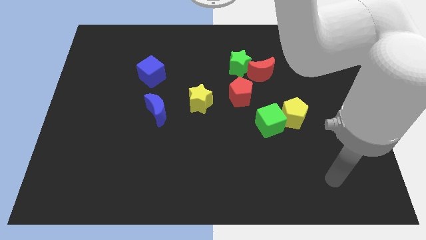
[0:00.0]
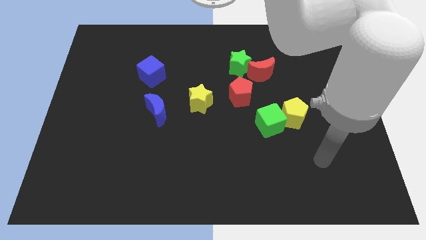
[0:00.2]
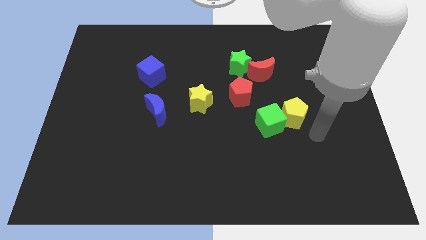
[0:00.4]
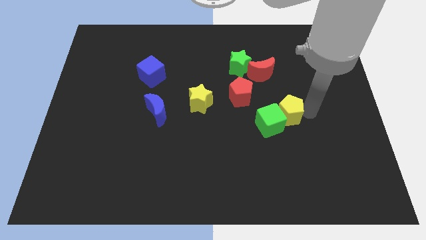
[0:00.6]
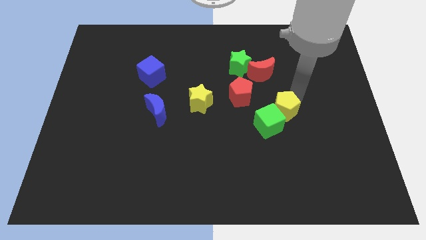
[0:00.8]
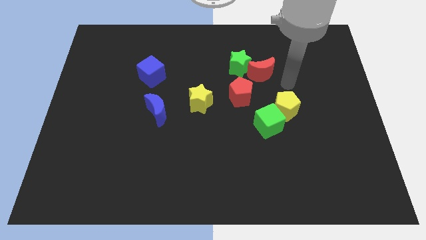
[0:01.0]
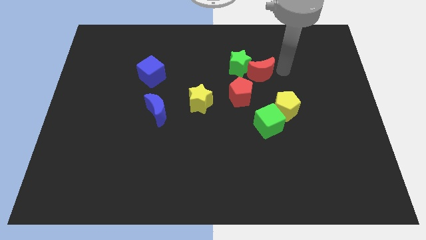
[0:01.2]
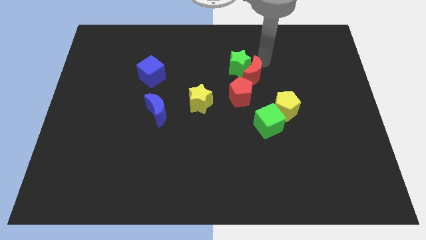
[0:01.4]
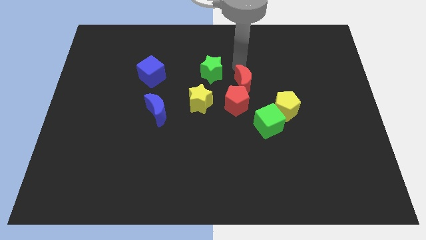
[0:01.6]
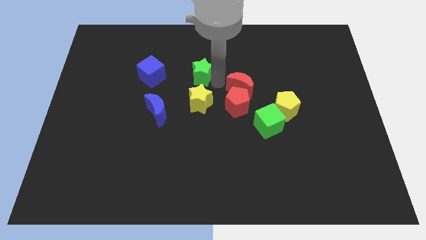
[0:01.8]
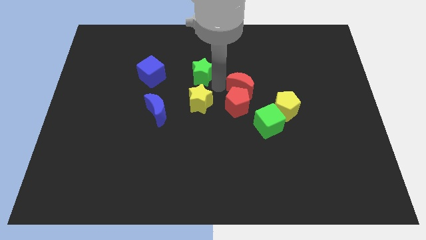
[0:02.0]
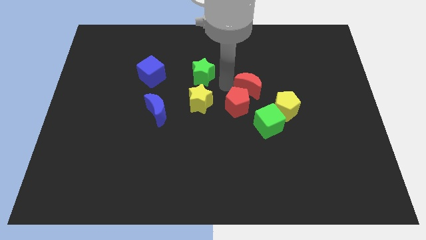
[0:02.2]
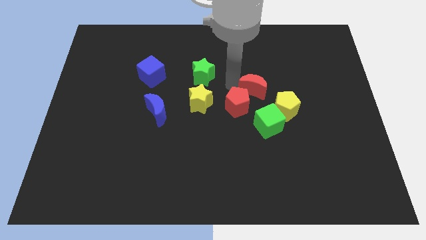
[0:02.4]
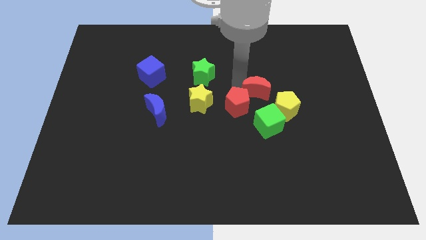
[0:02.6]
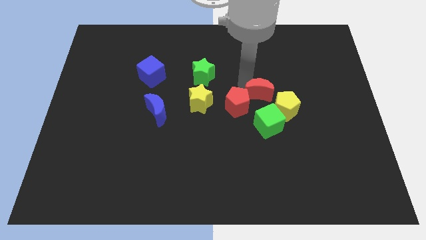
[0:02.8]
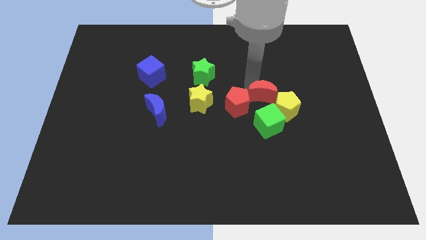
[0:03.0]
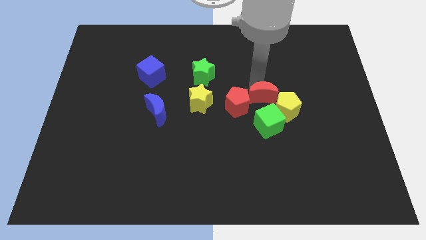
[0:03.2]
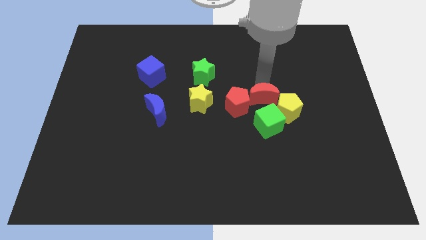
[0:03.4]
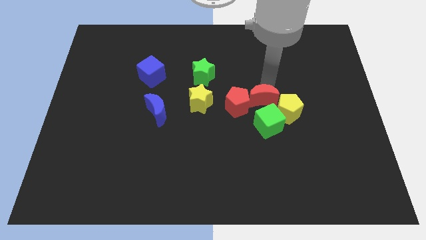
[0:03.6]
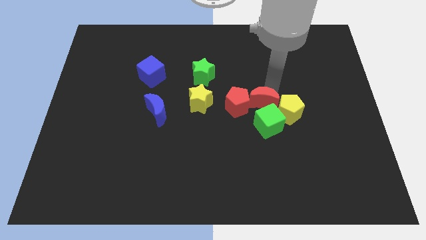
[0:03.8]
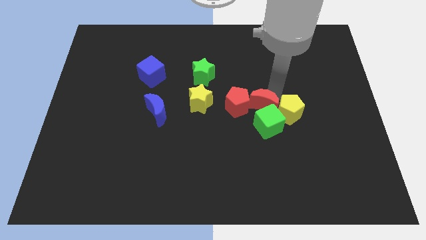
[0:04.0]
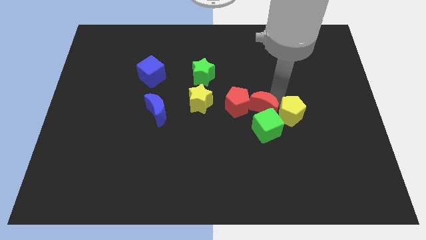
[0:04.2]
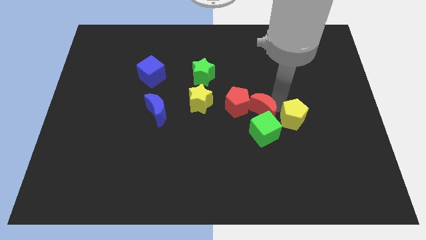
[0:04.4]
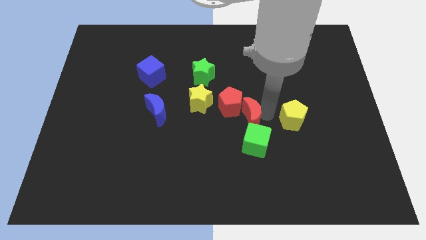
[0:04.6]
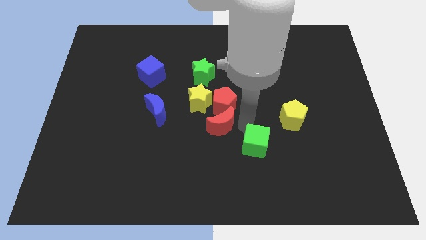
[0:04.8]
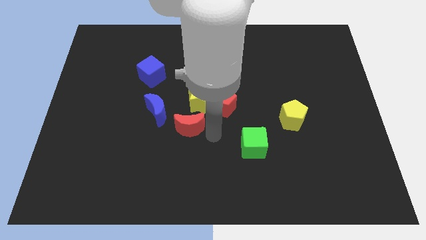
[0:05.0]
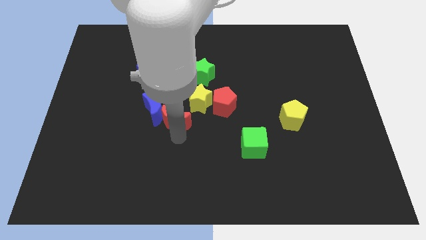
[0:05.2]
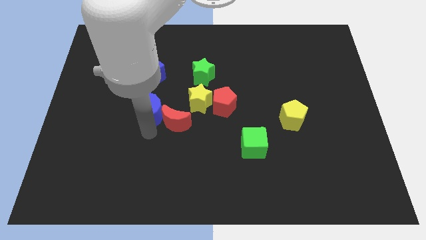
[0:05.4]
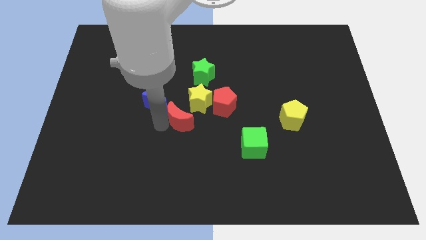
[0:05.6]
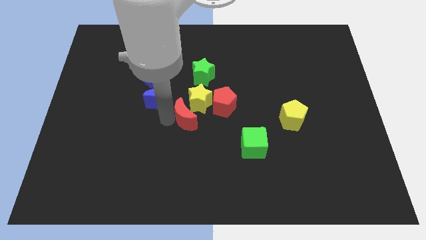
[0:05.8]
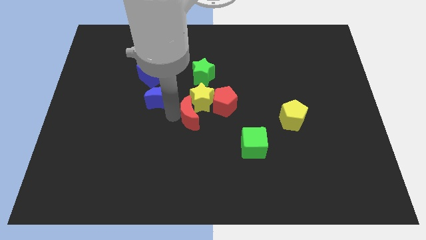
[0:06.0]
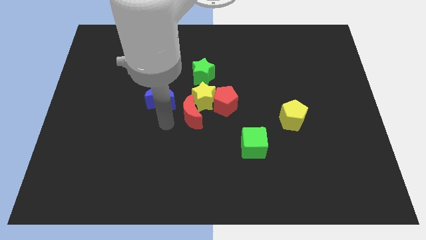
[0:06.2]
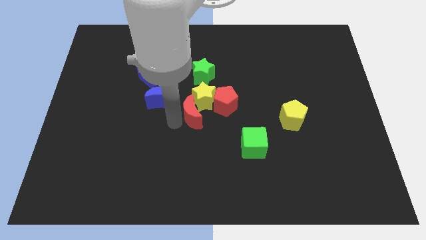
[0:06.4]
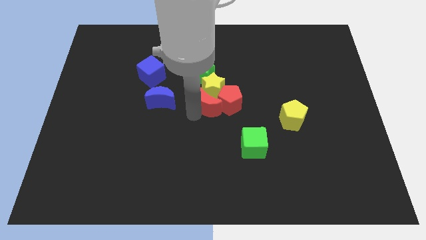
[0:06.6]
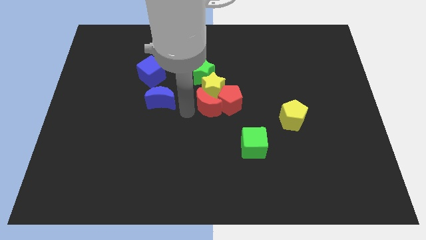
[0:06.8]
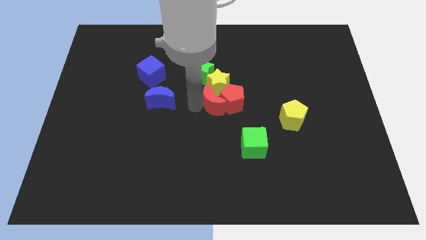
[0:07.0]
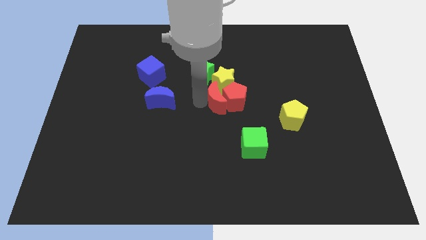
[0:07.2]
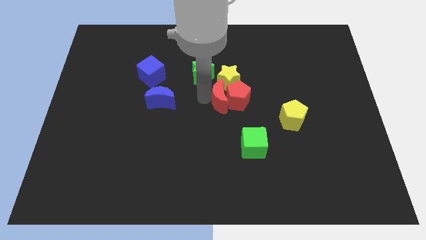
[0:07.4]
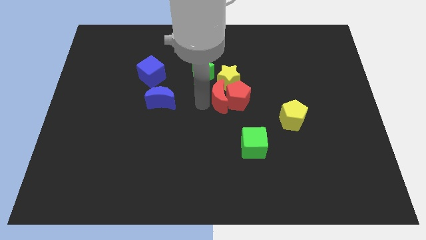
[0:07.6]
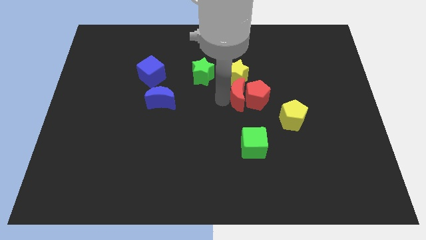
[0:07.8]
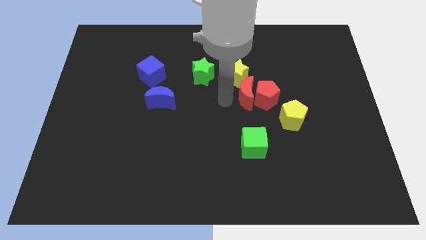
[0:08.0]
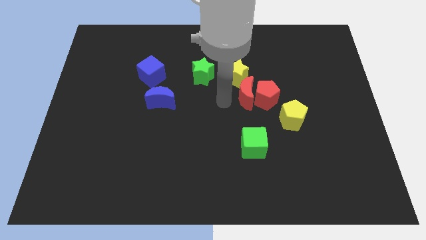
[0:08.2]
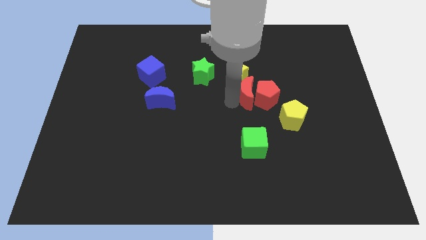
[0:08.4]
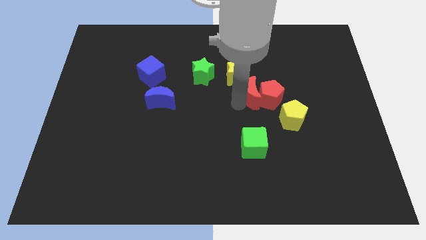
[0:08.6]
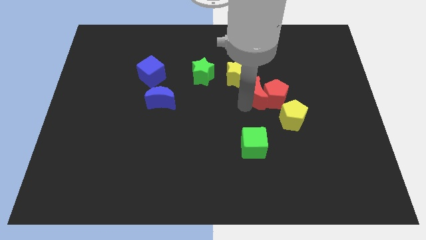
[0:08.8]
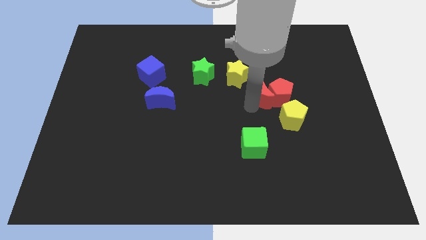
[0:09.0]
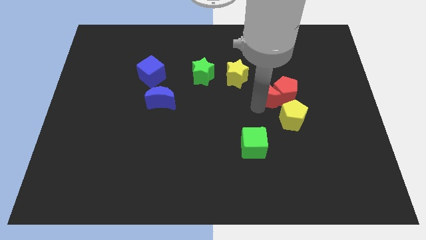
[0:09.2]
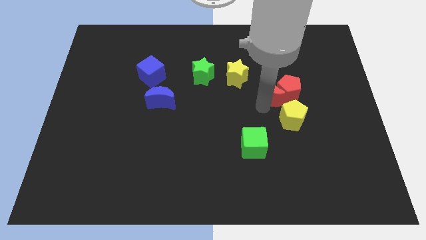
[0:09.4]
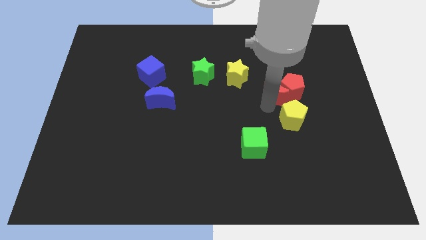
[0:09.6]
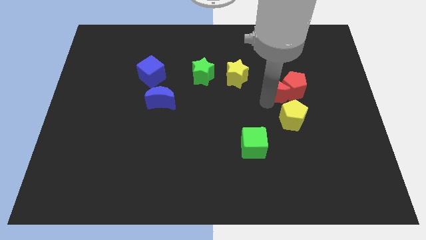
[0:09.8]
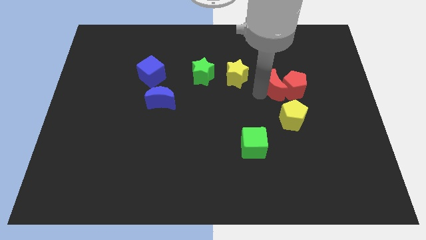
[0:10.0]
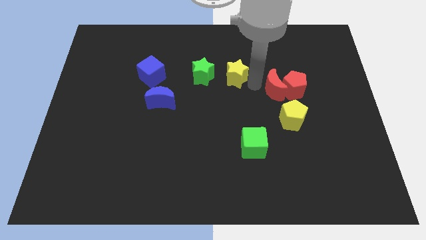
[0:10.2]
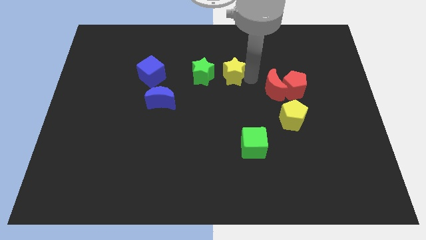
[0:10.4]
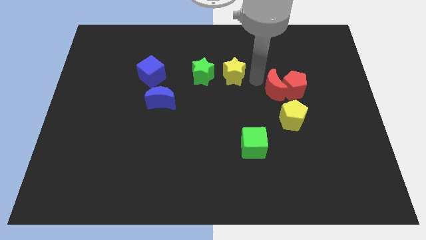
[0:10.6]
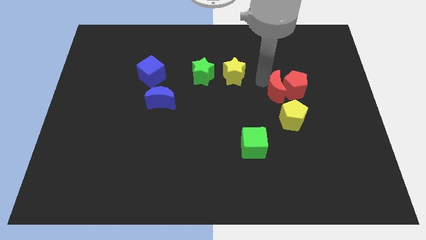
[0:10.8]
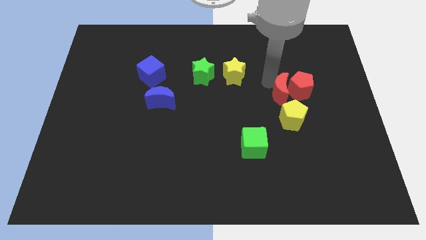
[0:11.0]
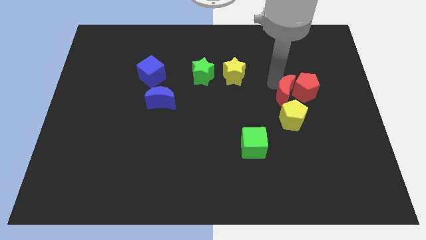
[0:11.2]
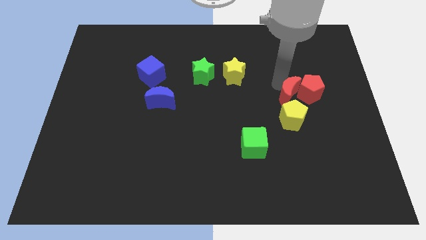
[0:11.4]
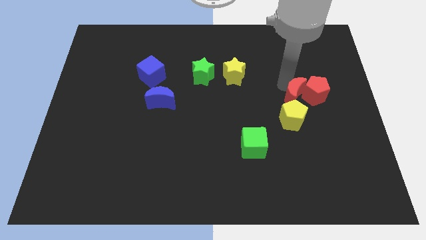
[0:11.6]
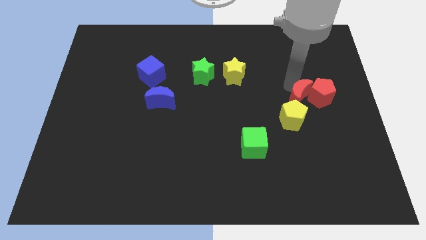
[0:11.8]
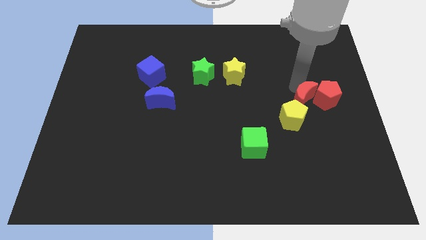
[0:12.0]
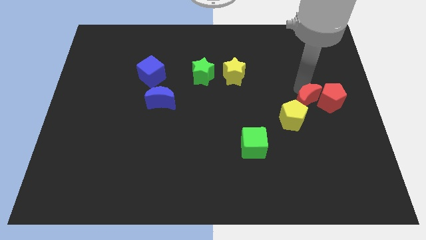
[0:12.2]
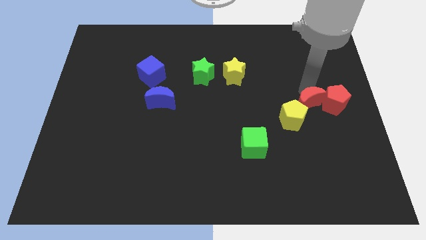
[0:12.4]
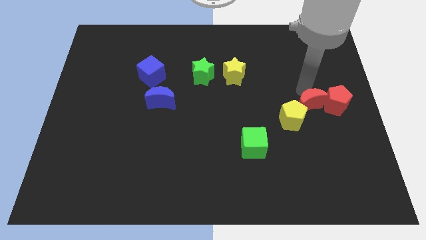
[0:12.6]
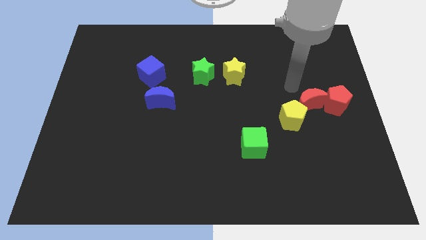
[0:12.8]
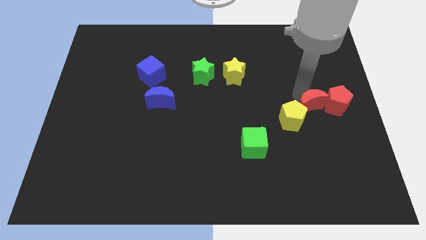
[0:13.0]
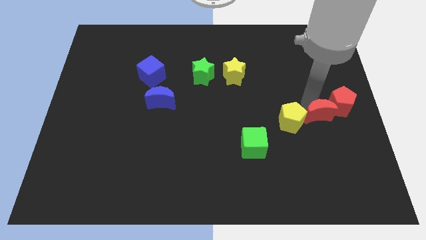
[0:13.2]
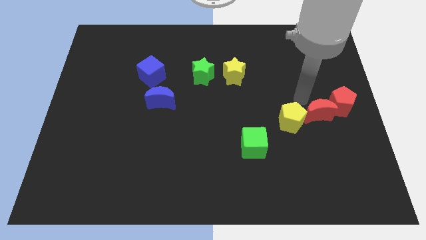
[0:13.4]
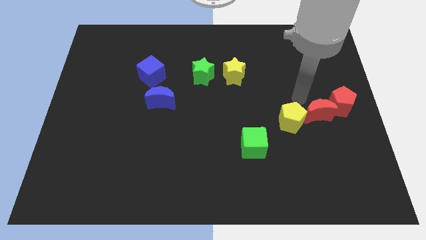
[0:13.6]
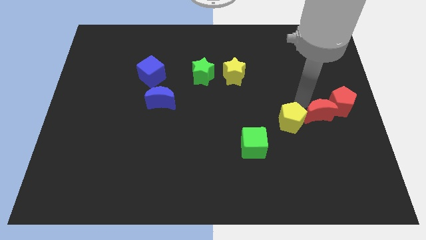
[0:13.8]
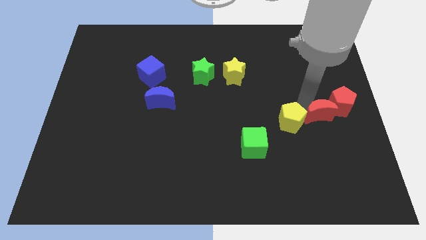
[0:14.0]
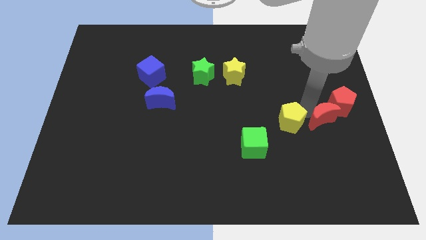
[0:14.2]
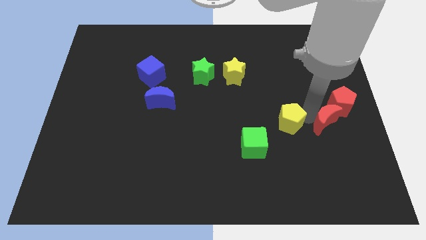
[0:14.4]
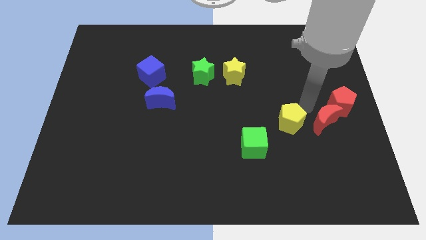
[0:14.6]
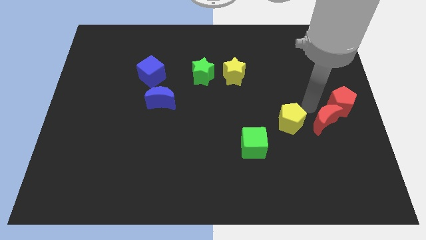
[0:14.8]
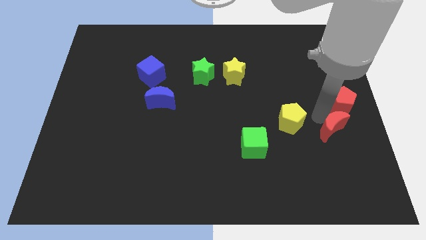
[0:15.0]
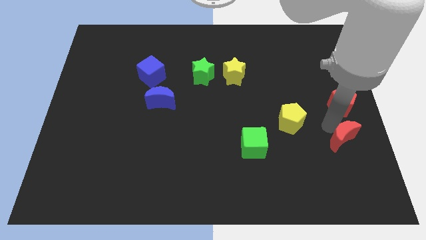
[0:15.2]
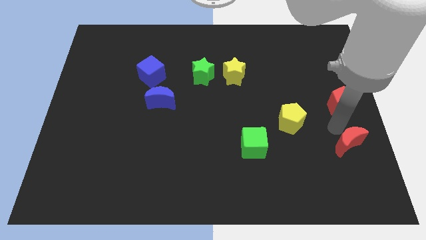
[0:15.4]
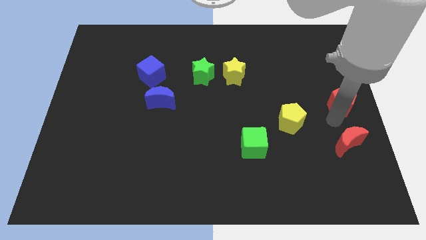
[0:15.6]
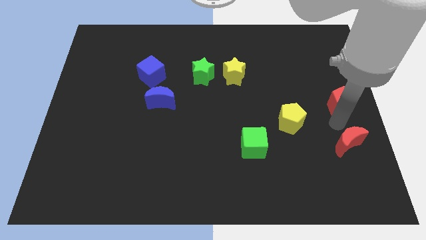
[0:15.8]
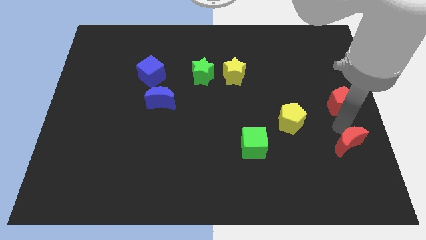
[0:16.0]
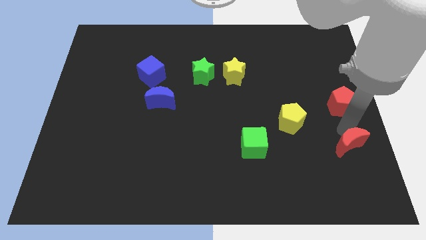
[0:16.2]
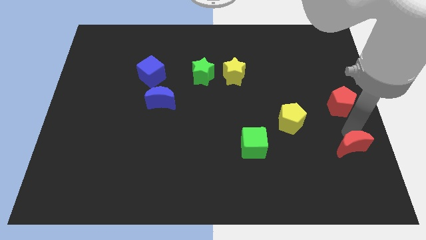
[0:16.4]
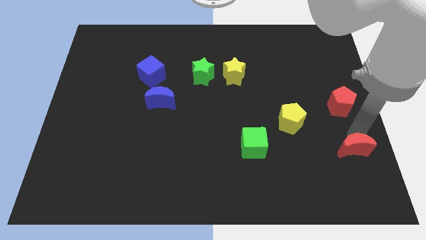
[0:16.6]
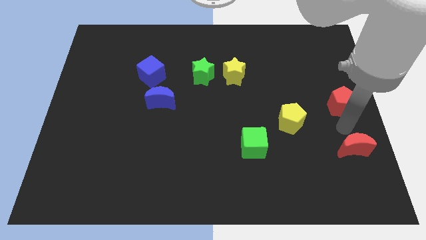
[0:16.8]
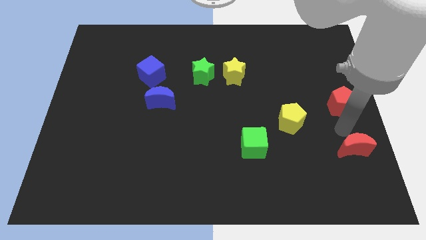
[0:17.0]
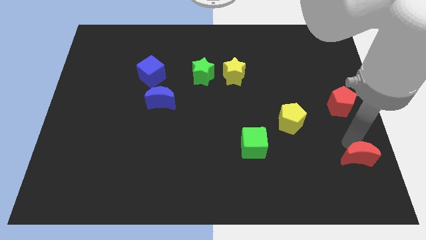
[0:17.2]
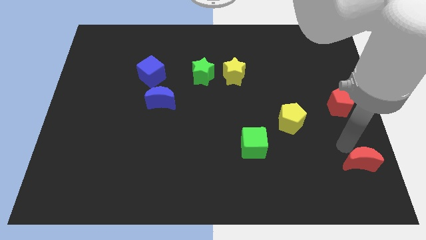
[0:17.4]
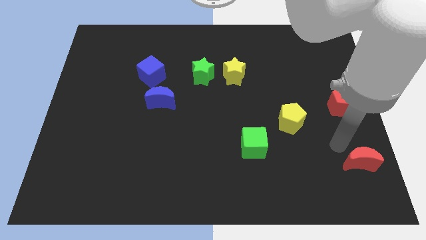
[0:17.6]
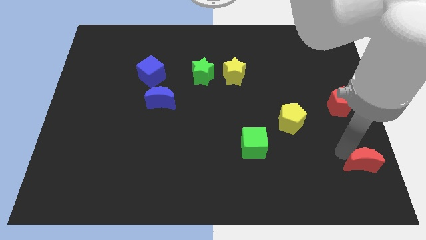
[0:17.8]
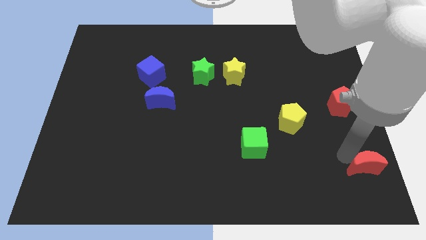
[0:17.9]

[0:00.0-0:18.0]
slide the red moon to the lower right corner
